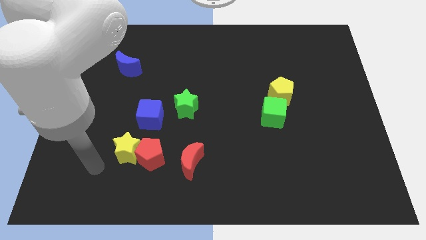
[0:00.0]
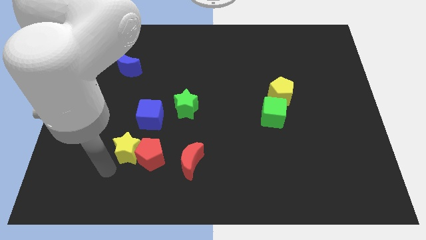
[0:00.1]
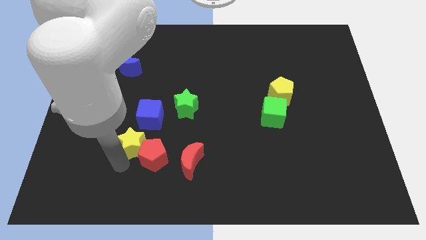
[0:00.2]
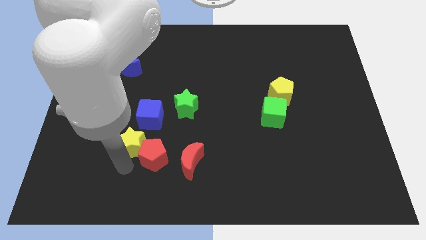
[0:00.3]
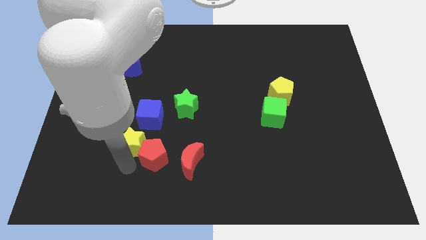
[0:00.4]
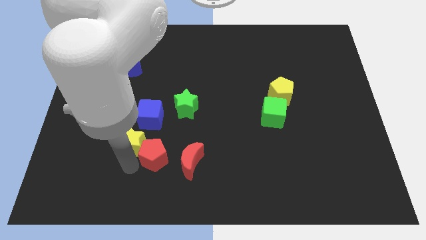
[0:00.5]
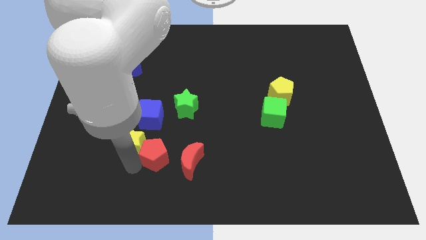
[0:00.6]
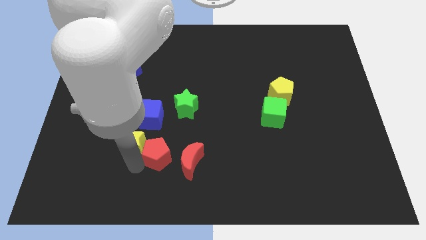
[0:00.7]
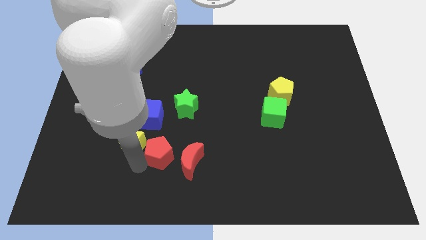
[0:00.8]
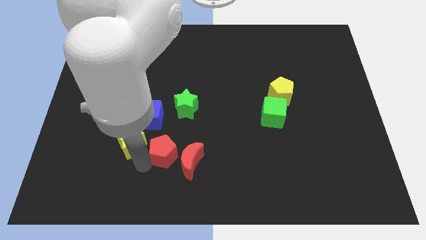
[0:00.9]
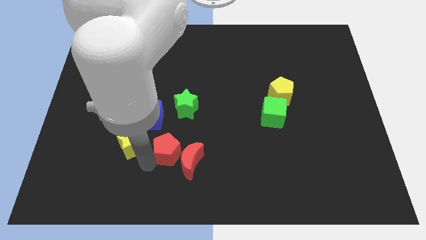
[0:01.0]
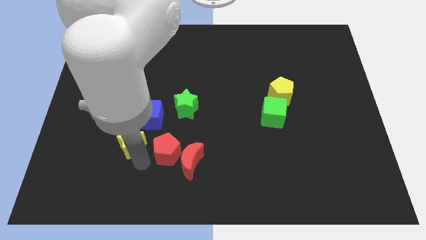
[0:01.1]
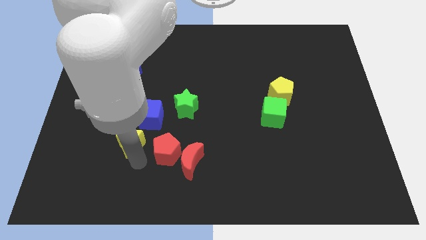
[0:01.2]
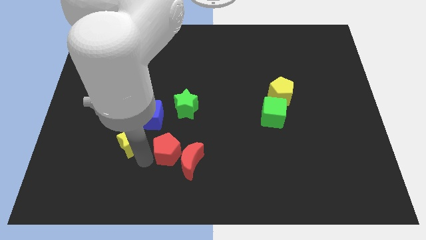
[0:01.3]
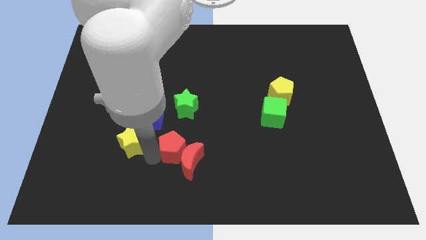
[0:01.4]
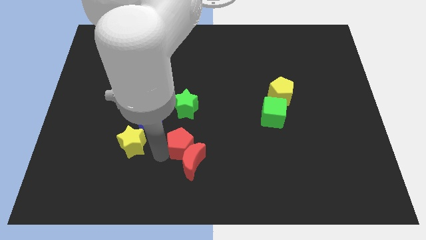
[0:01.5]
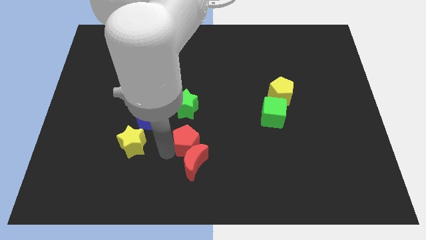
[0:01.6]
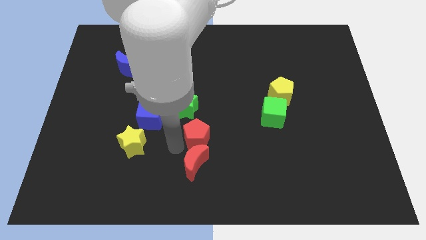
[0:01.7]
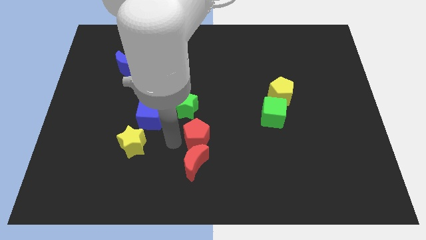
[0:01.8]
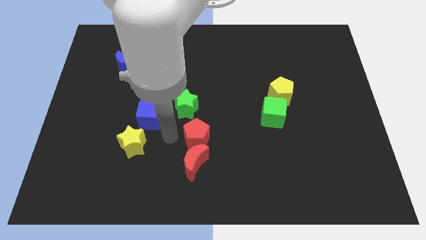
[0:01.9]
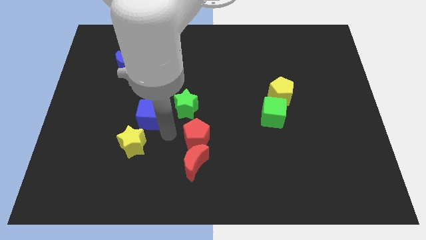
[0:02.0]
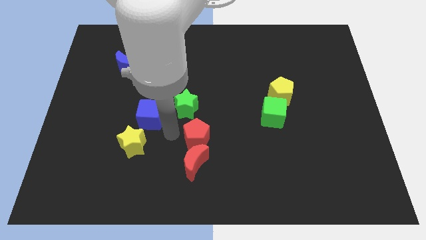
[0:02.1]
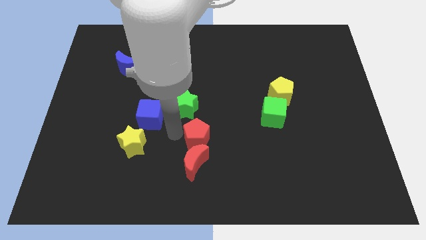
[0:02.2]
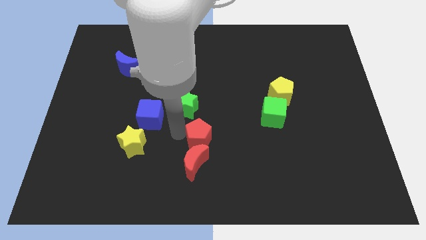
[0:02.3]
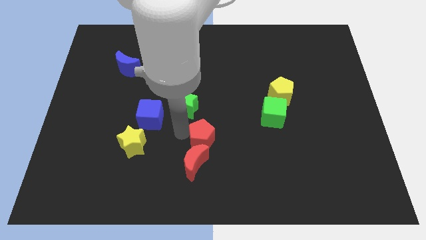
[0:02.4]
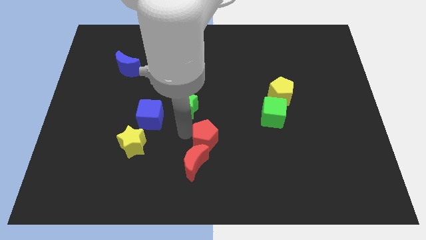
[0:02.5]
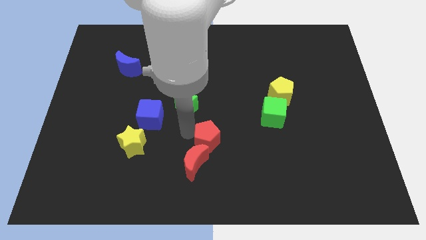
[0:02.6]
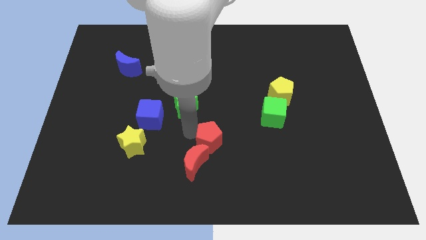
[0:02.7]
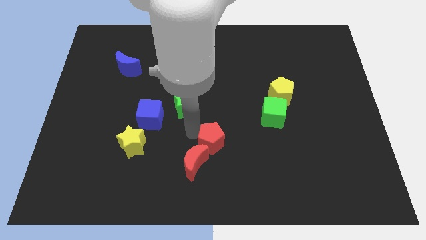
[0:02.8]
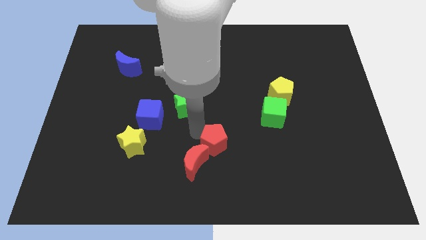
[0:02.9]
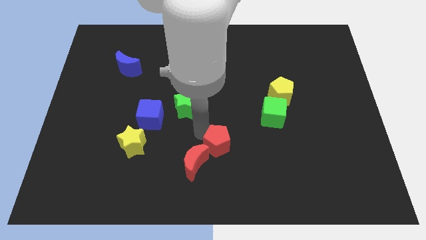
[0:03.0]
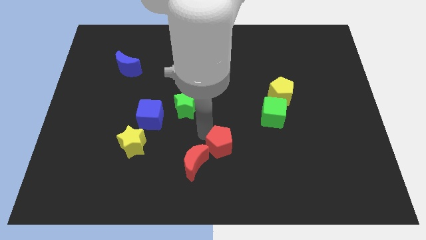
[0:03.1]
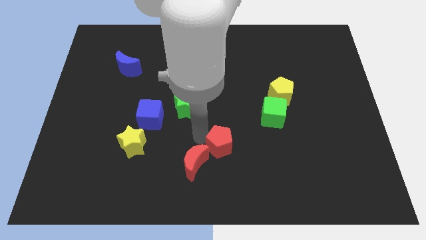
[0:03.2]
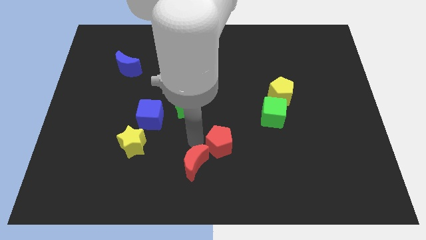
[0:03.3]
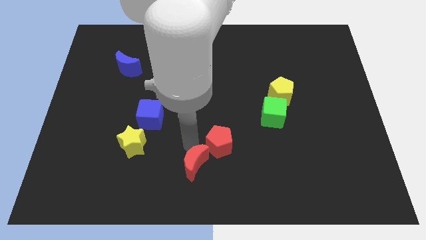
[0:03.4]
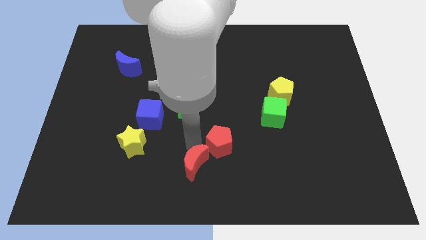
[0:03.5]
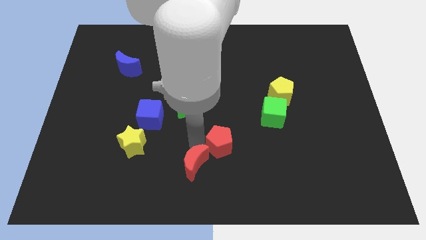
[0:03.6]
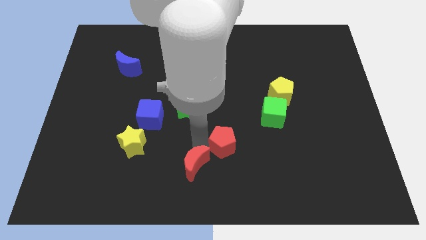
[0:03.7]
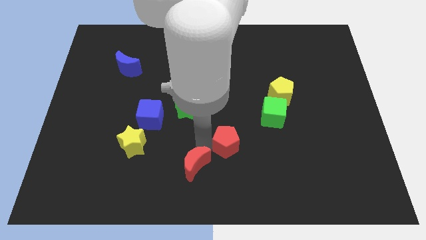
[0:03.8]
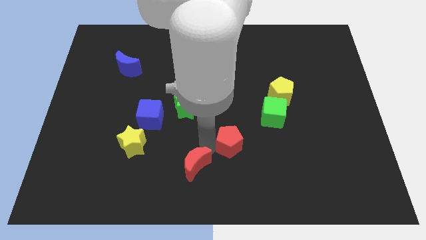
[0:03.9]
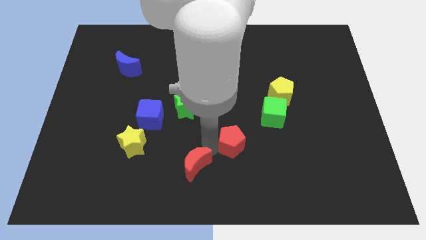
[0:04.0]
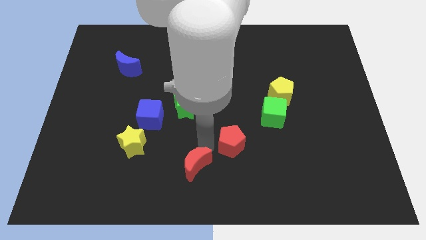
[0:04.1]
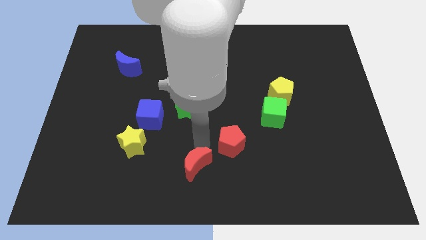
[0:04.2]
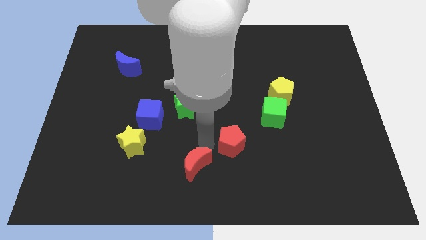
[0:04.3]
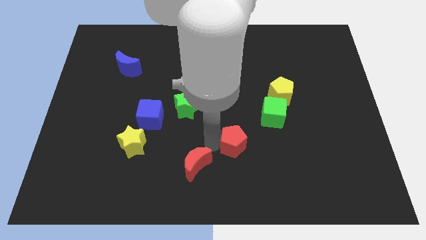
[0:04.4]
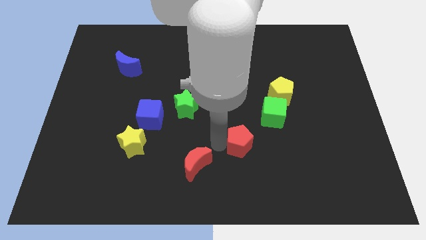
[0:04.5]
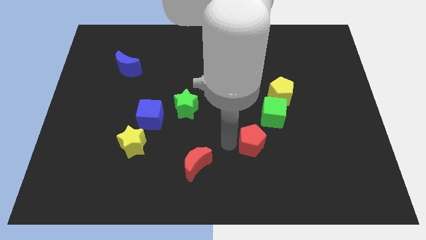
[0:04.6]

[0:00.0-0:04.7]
move the red pentagon right

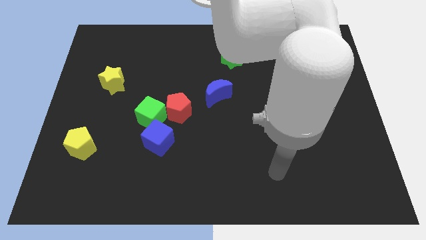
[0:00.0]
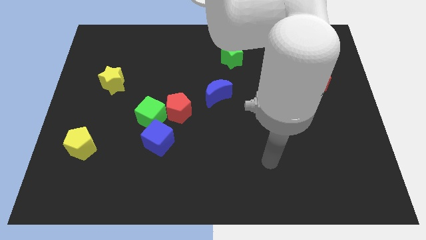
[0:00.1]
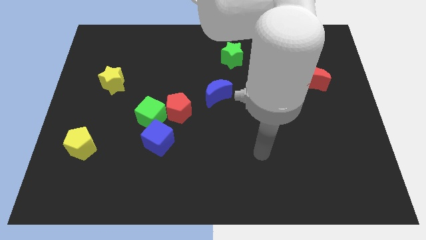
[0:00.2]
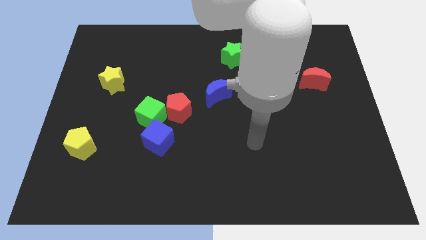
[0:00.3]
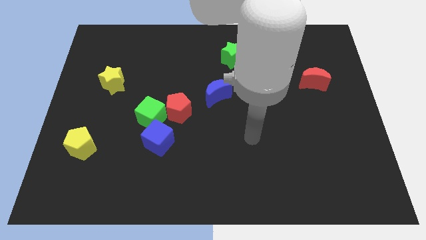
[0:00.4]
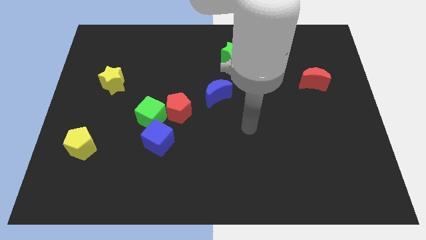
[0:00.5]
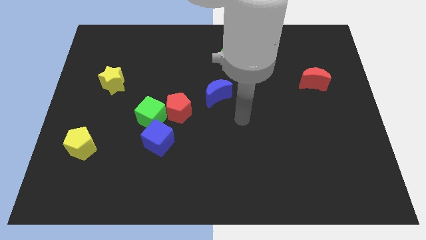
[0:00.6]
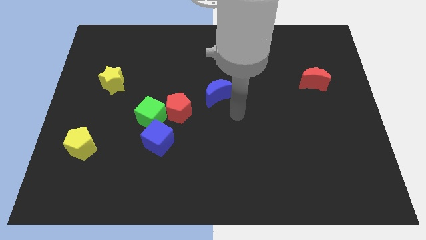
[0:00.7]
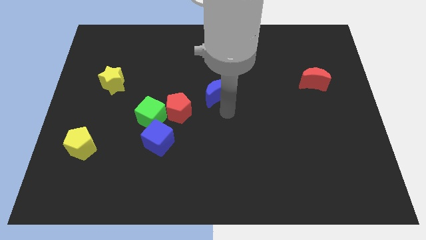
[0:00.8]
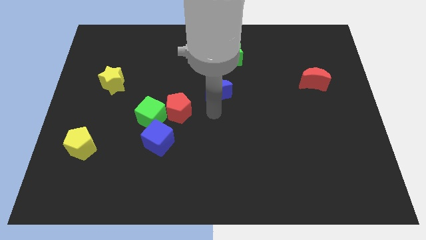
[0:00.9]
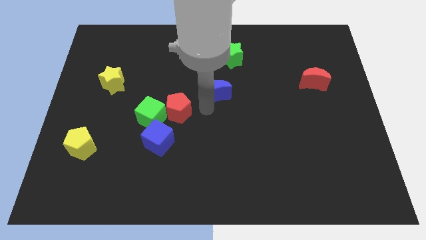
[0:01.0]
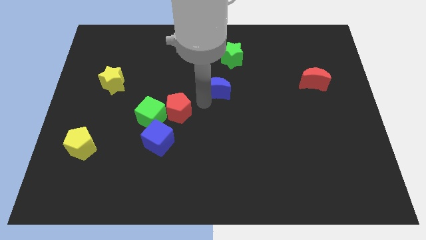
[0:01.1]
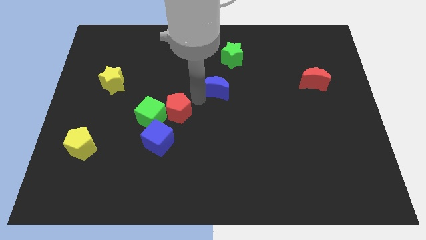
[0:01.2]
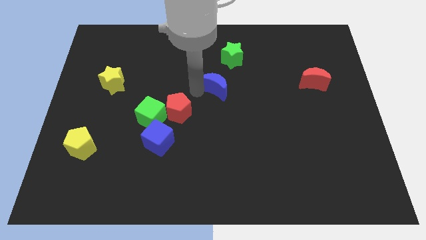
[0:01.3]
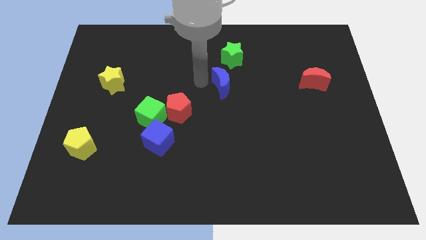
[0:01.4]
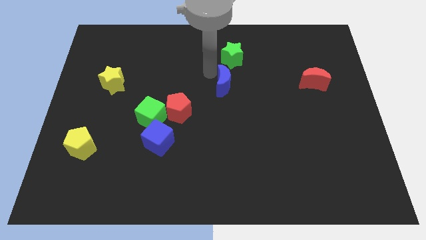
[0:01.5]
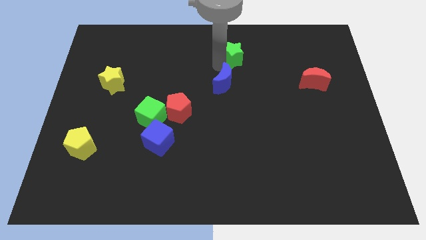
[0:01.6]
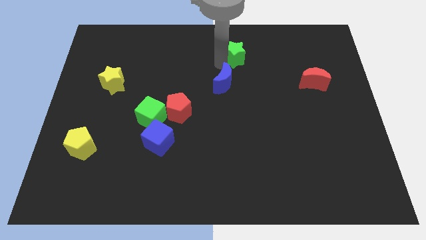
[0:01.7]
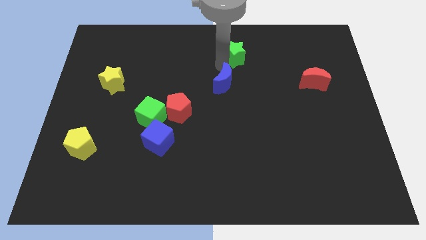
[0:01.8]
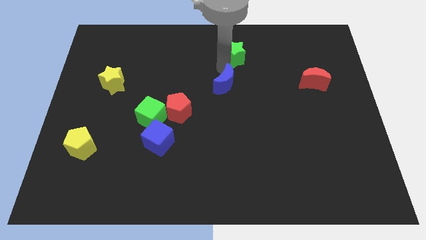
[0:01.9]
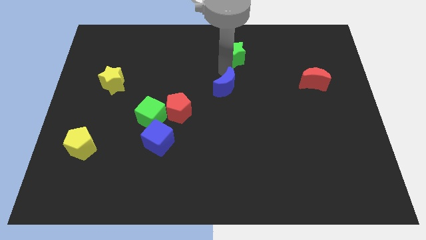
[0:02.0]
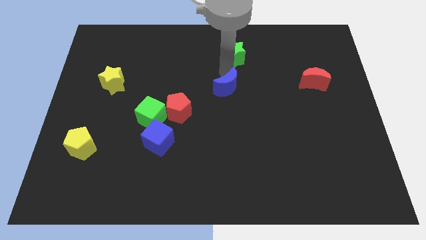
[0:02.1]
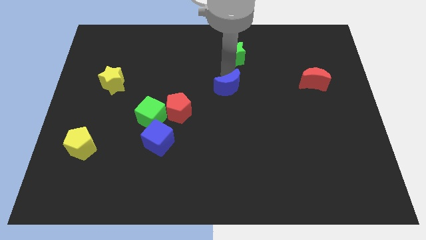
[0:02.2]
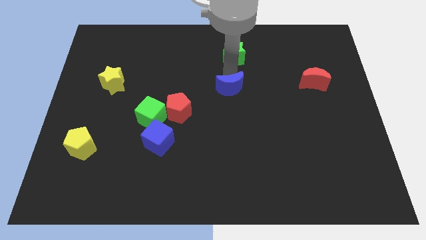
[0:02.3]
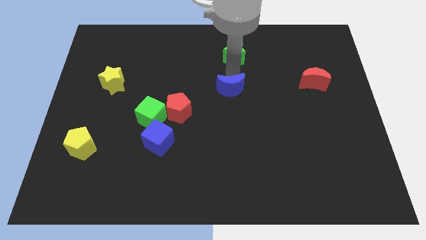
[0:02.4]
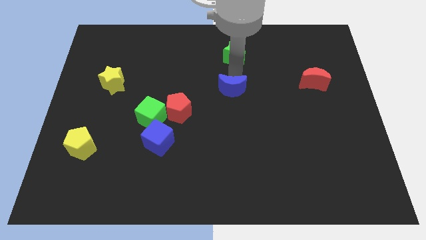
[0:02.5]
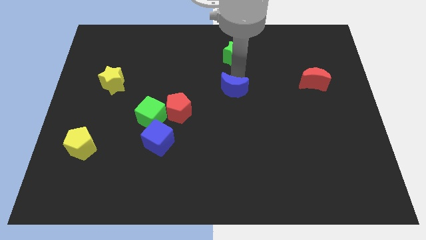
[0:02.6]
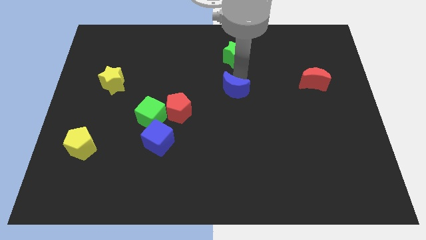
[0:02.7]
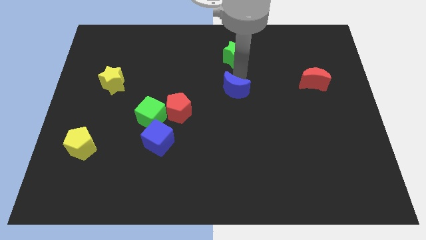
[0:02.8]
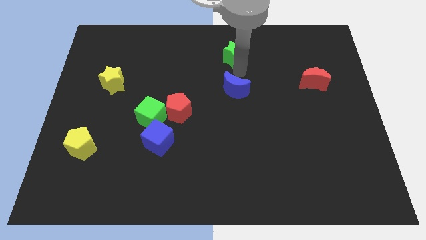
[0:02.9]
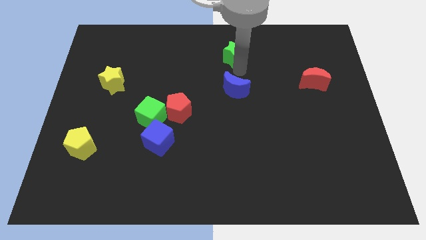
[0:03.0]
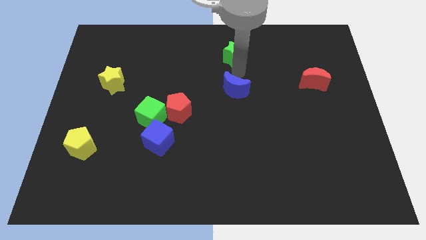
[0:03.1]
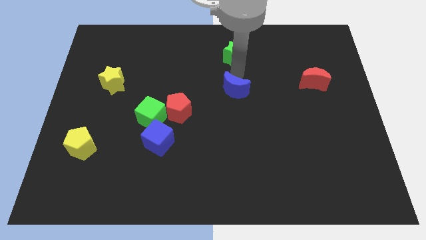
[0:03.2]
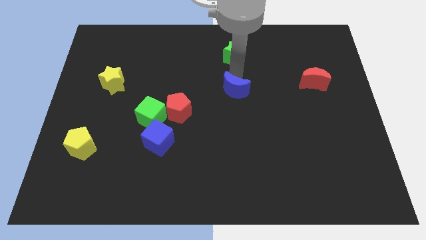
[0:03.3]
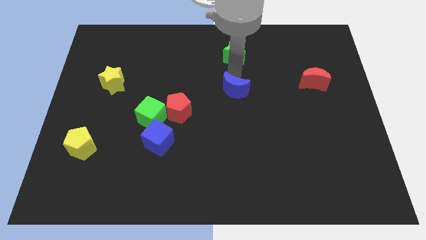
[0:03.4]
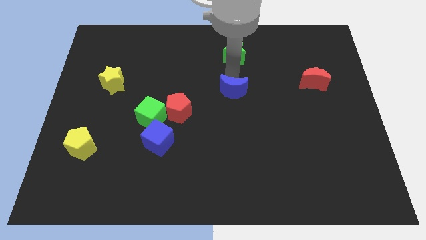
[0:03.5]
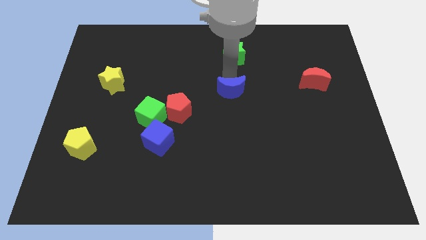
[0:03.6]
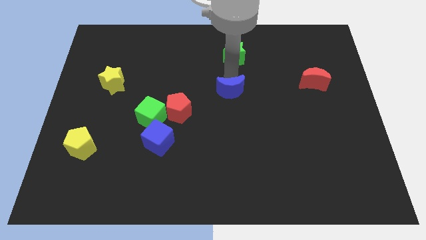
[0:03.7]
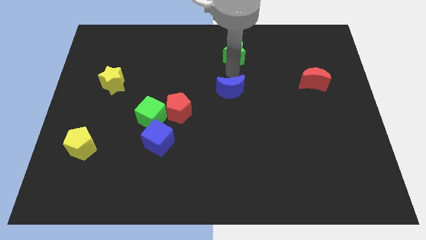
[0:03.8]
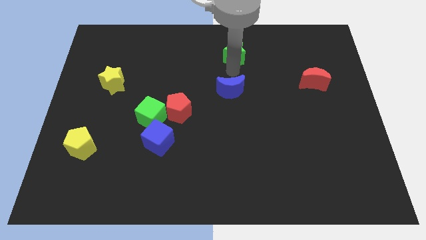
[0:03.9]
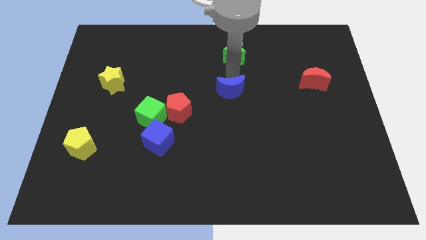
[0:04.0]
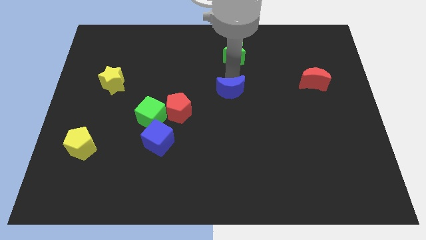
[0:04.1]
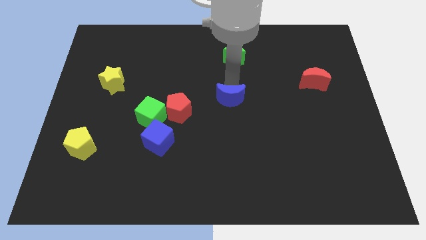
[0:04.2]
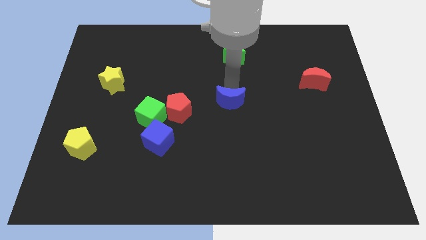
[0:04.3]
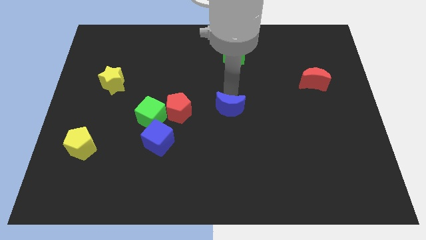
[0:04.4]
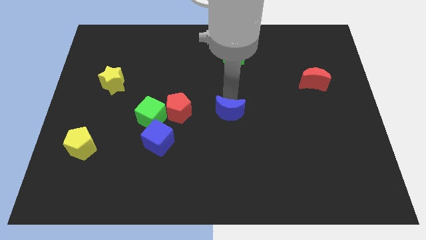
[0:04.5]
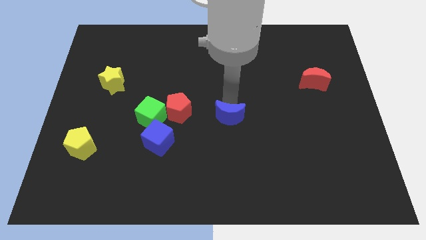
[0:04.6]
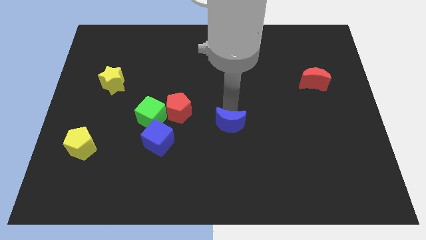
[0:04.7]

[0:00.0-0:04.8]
push the blue moon a bit downwards
